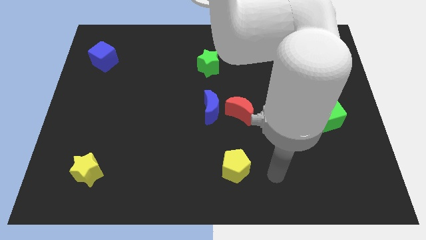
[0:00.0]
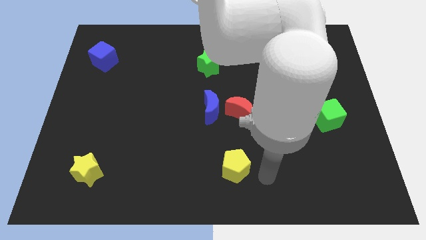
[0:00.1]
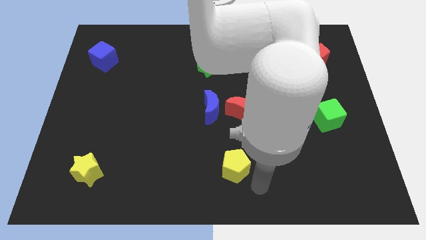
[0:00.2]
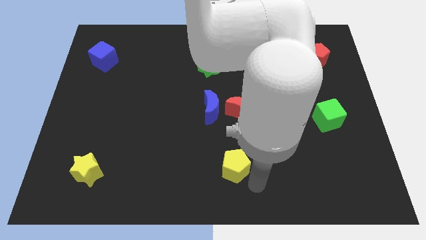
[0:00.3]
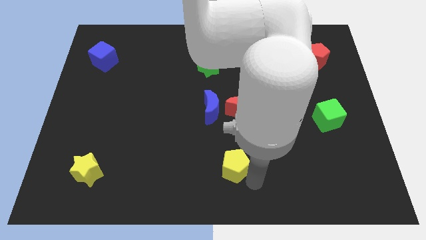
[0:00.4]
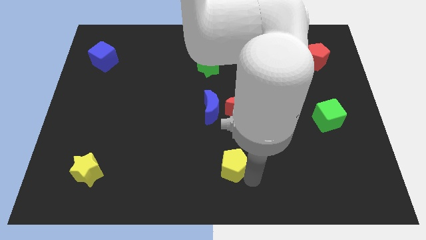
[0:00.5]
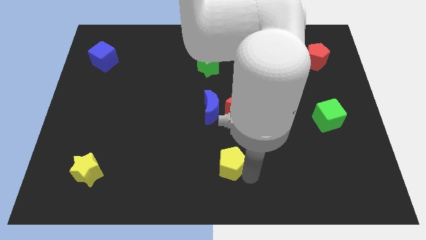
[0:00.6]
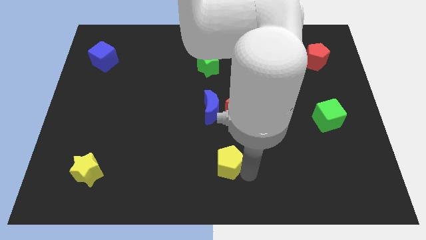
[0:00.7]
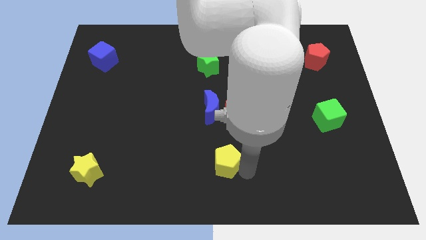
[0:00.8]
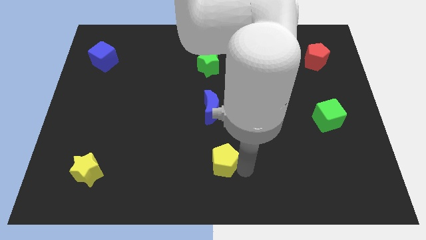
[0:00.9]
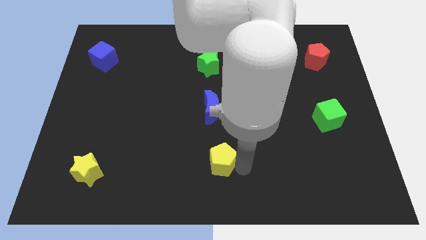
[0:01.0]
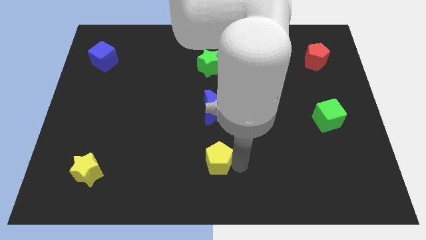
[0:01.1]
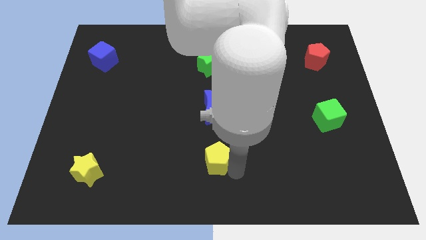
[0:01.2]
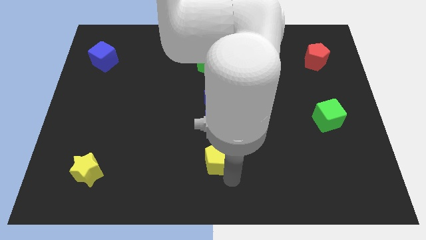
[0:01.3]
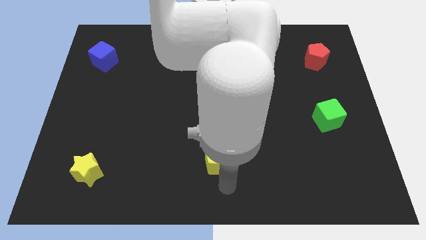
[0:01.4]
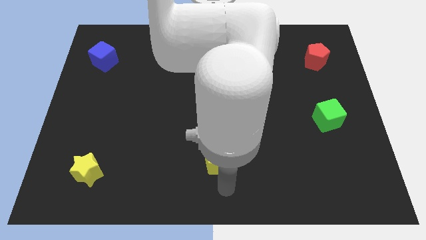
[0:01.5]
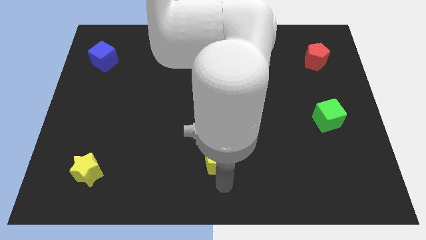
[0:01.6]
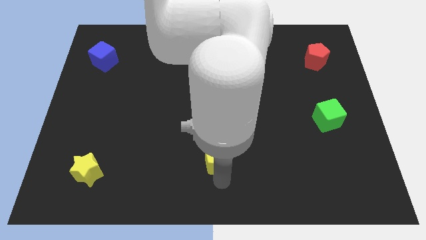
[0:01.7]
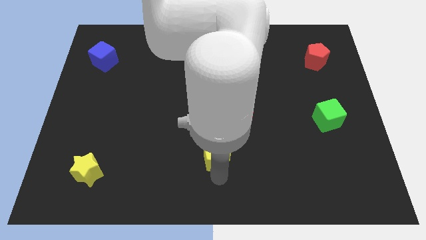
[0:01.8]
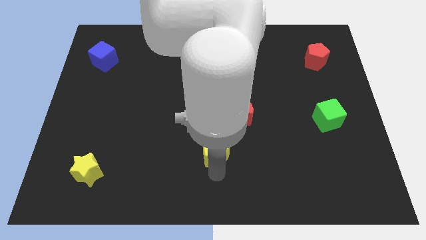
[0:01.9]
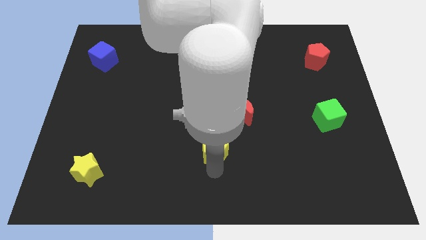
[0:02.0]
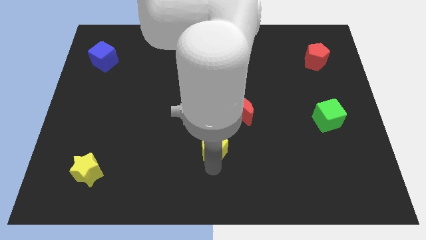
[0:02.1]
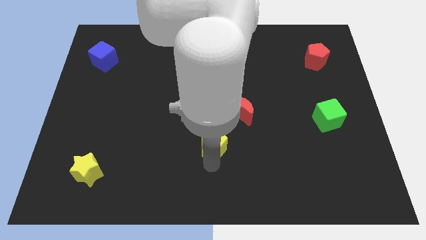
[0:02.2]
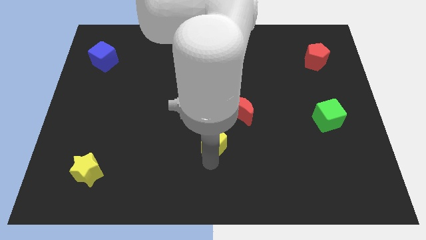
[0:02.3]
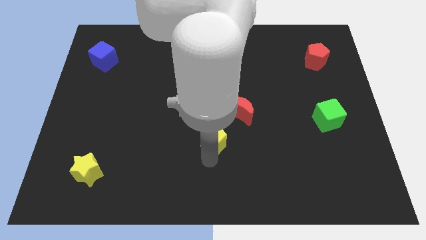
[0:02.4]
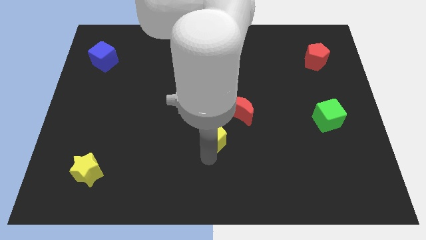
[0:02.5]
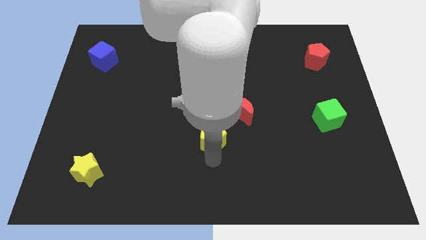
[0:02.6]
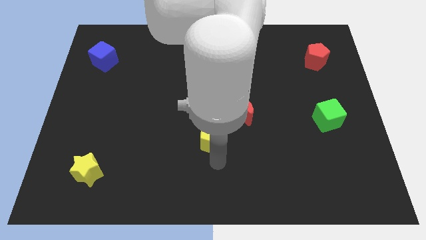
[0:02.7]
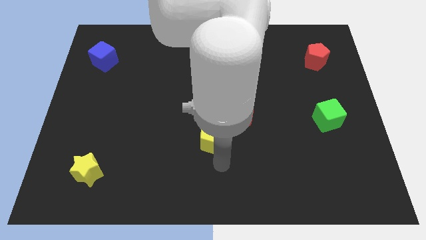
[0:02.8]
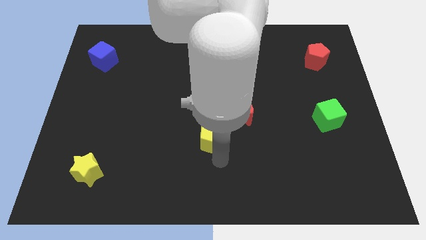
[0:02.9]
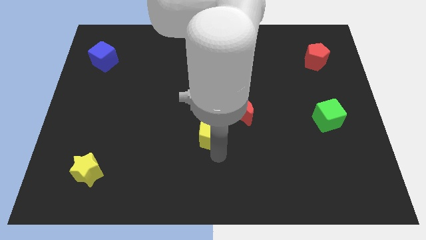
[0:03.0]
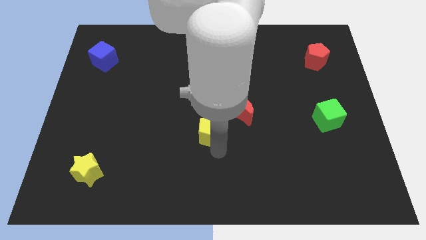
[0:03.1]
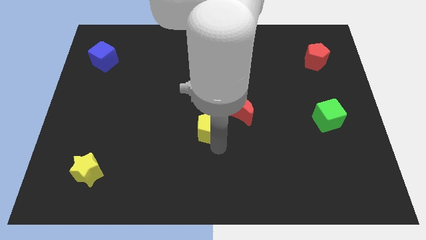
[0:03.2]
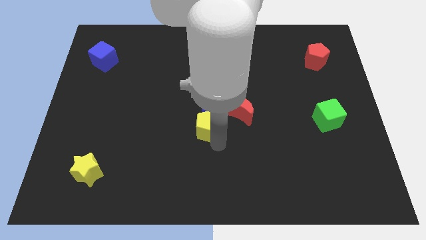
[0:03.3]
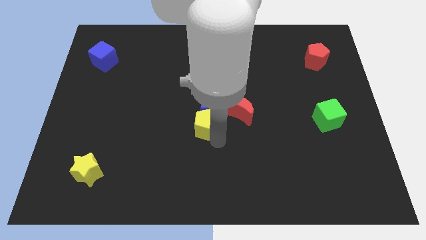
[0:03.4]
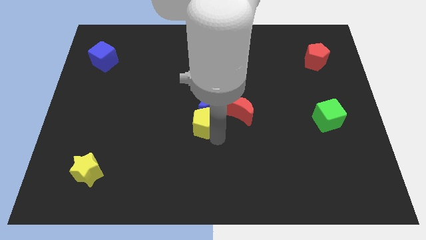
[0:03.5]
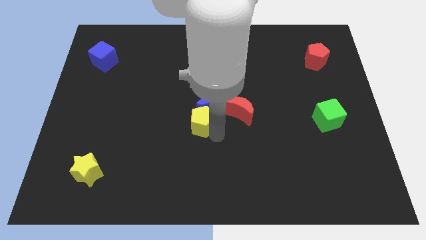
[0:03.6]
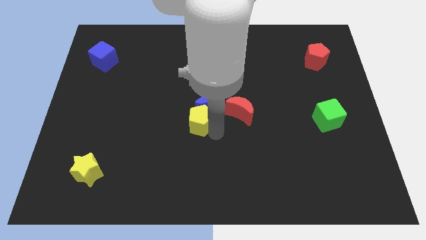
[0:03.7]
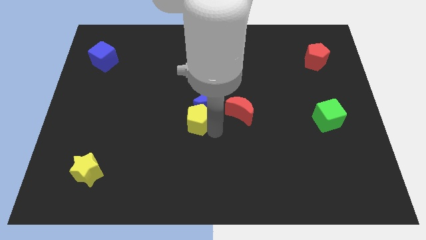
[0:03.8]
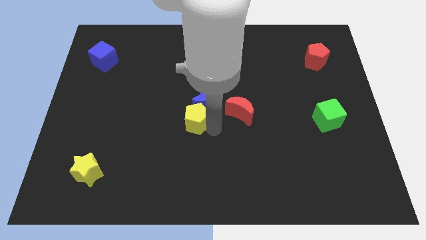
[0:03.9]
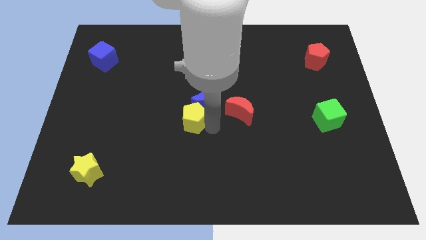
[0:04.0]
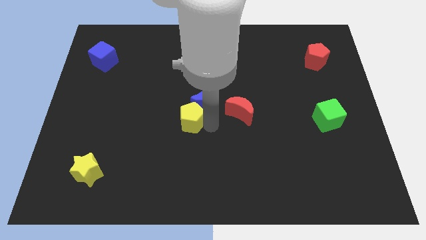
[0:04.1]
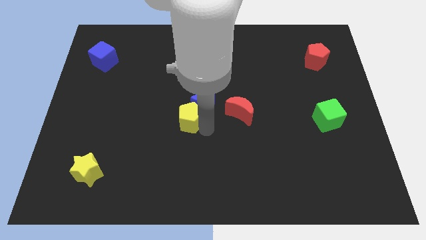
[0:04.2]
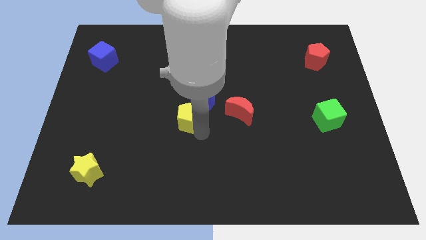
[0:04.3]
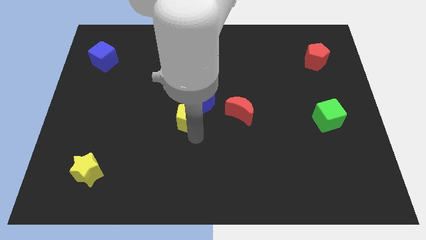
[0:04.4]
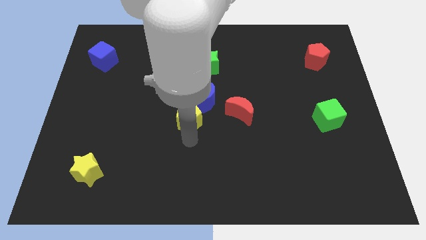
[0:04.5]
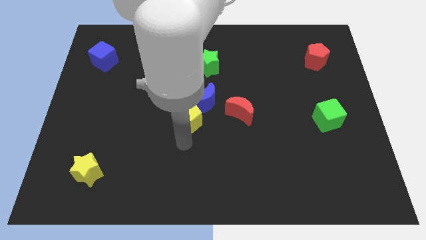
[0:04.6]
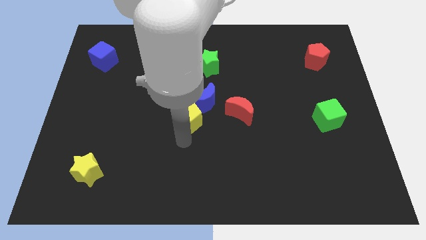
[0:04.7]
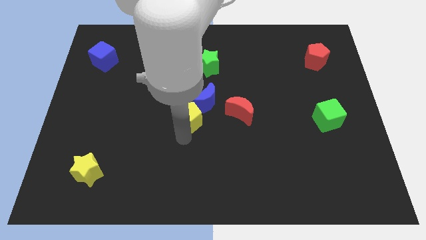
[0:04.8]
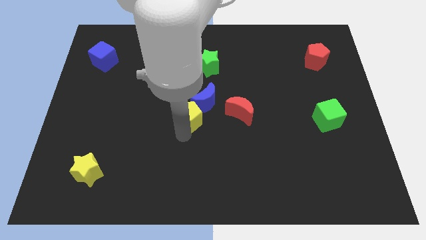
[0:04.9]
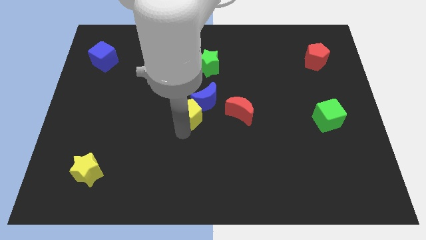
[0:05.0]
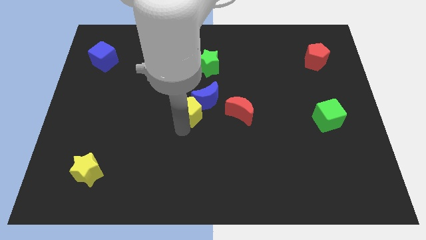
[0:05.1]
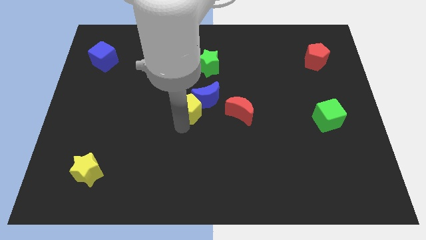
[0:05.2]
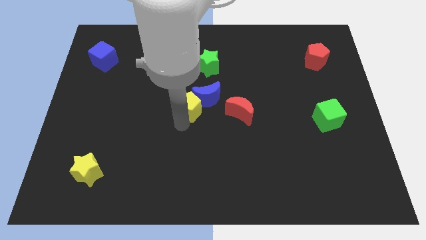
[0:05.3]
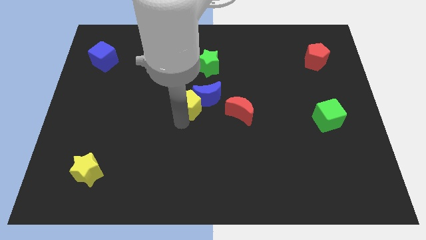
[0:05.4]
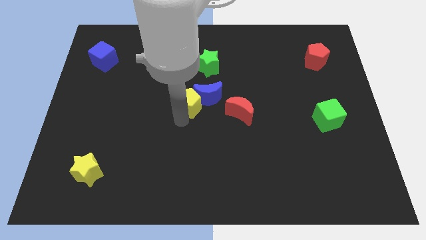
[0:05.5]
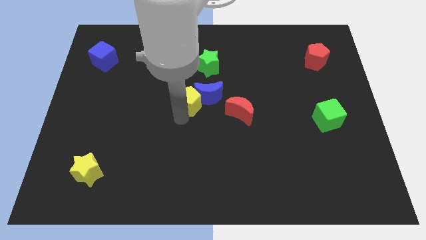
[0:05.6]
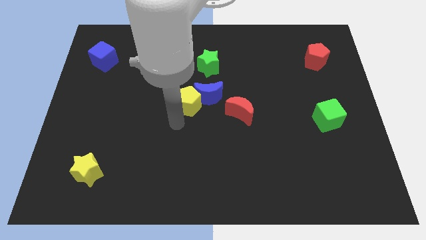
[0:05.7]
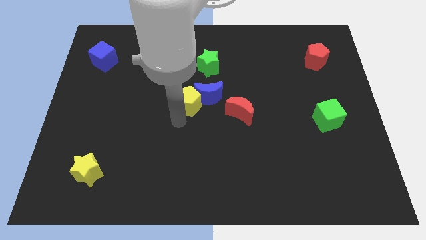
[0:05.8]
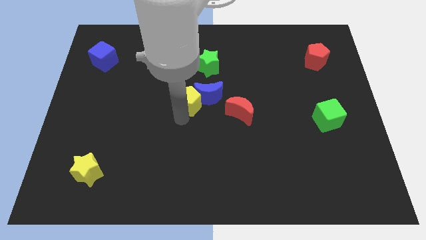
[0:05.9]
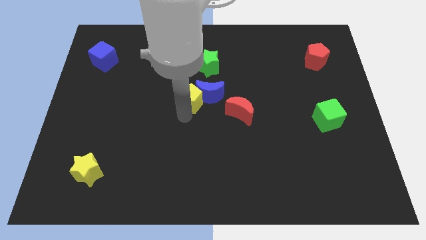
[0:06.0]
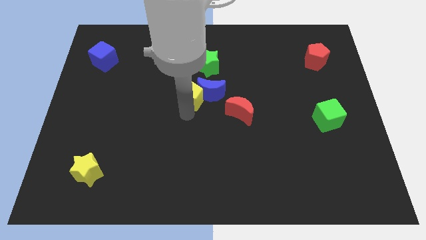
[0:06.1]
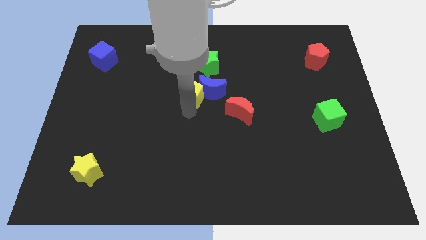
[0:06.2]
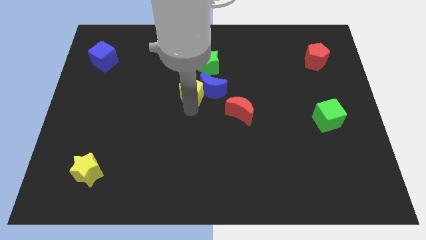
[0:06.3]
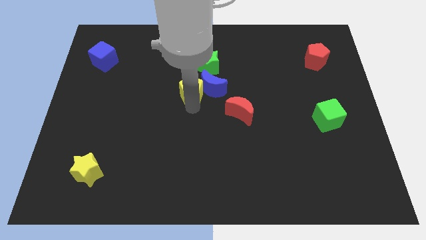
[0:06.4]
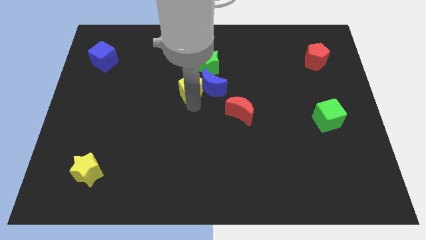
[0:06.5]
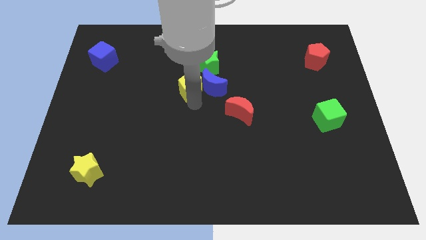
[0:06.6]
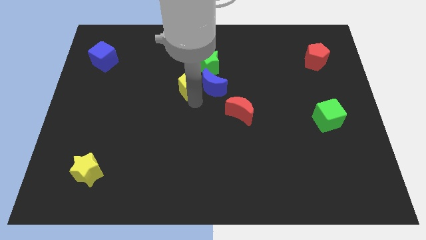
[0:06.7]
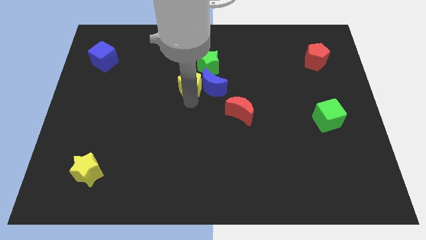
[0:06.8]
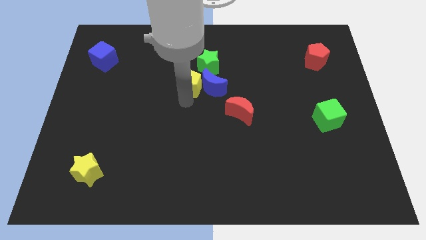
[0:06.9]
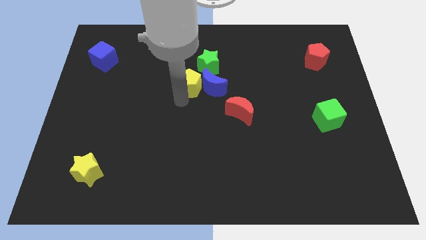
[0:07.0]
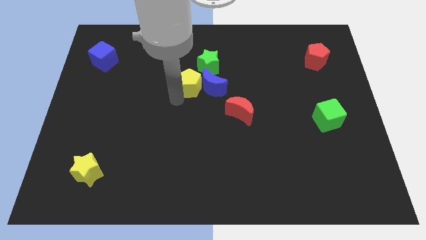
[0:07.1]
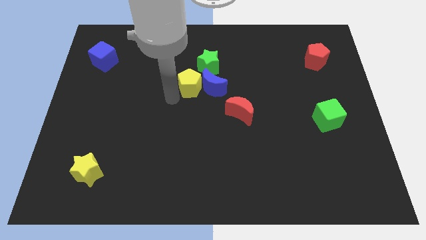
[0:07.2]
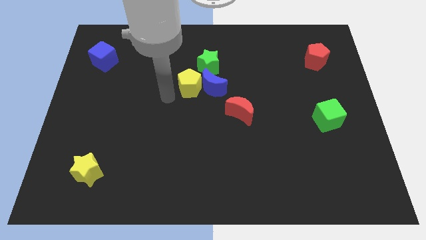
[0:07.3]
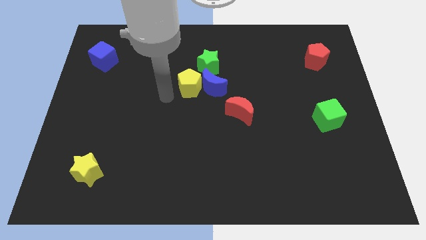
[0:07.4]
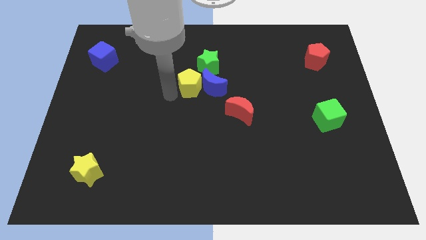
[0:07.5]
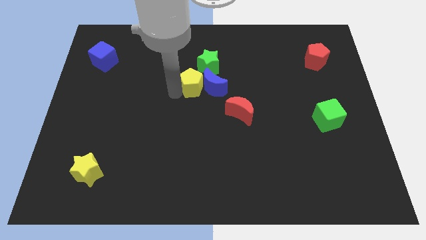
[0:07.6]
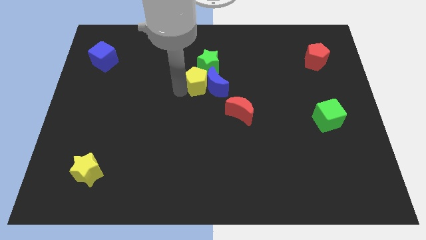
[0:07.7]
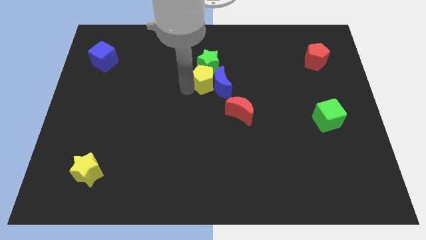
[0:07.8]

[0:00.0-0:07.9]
move the yellow pentagon towards the green star
